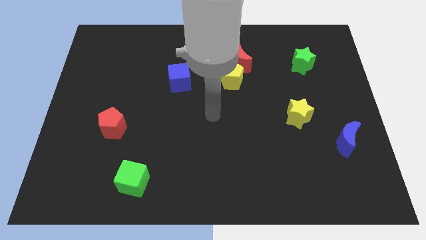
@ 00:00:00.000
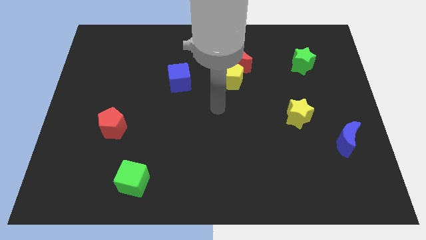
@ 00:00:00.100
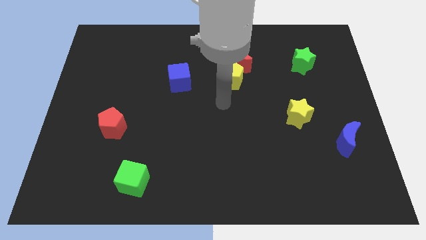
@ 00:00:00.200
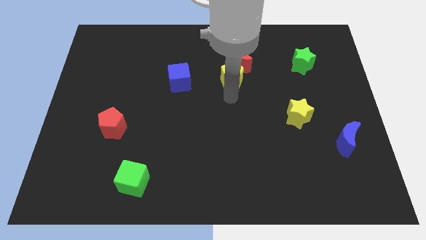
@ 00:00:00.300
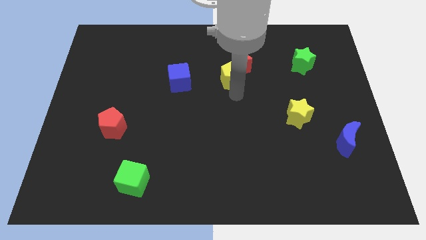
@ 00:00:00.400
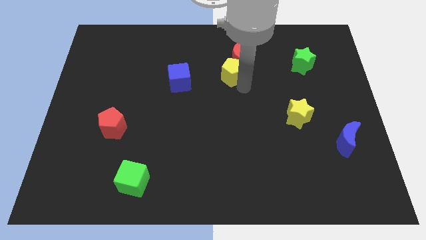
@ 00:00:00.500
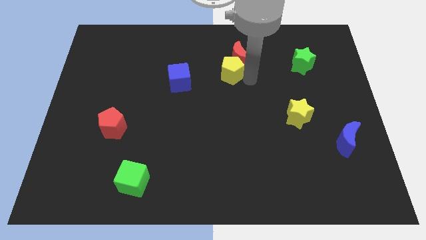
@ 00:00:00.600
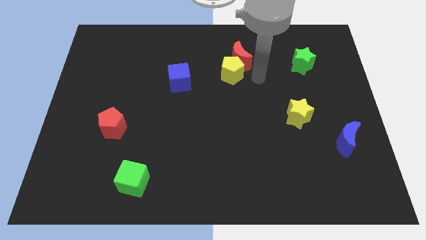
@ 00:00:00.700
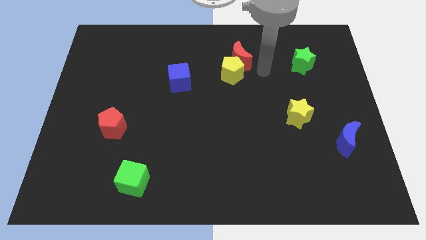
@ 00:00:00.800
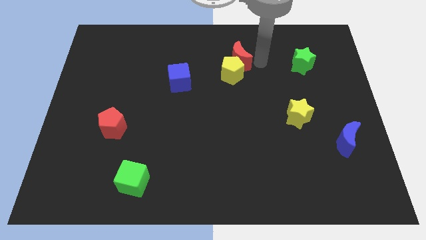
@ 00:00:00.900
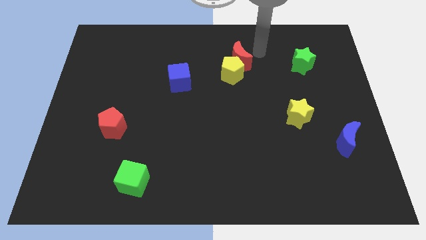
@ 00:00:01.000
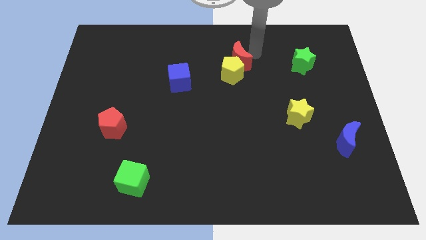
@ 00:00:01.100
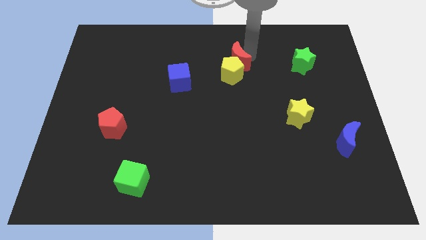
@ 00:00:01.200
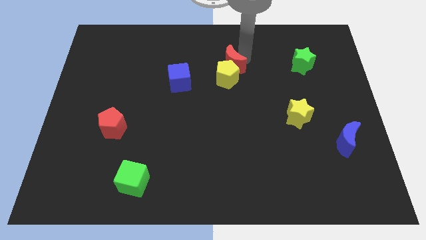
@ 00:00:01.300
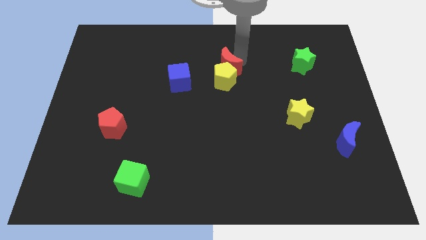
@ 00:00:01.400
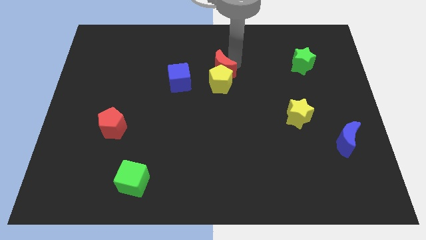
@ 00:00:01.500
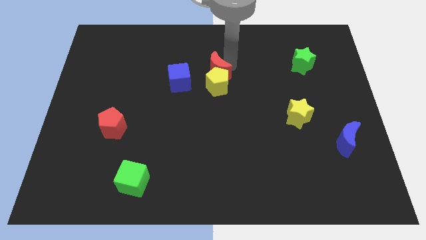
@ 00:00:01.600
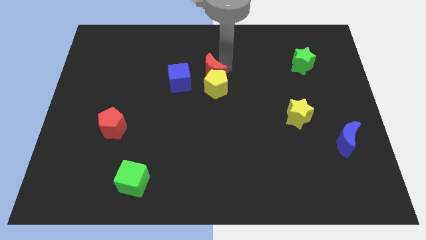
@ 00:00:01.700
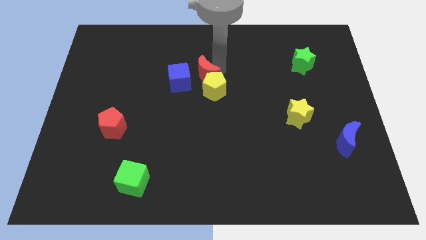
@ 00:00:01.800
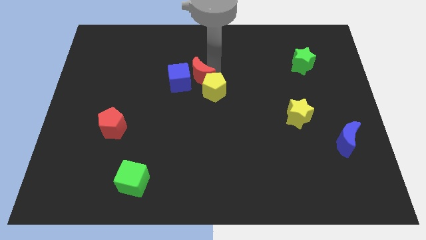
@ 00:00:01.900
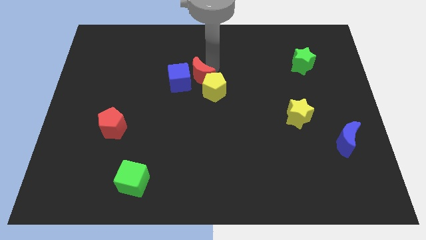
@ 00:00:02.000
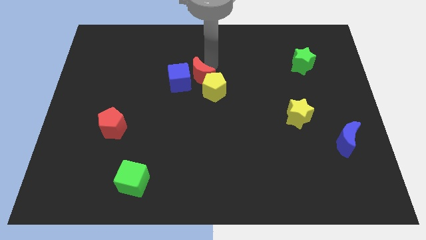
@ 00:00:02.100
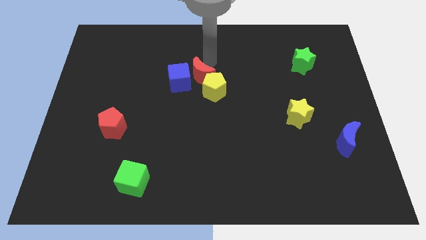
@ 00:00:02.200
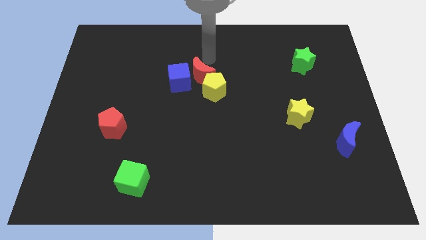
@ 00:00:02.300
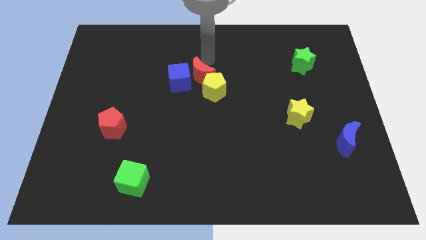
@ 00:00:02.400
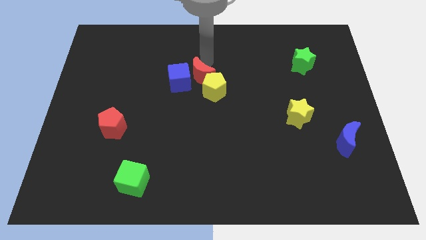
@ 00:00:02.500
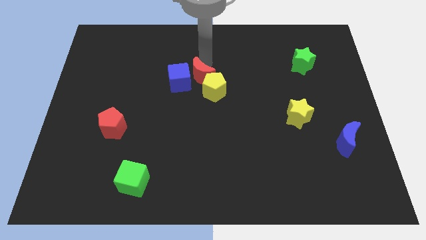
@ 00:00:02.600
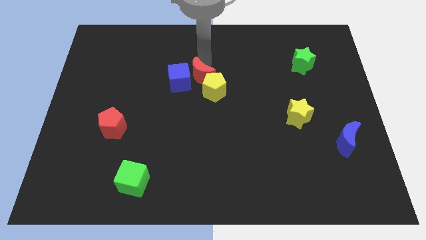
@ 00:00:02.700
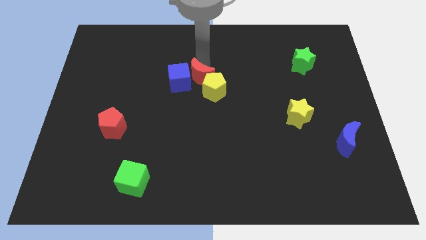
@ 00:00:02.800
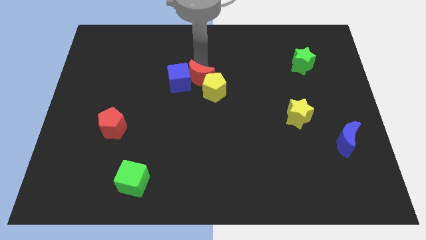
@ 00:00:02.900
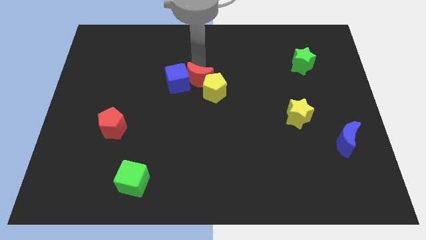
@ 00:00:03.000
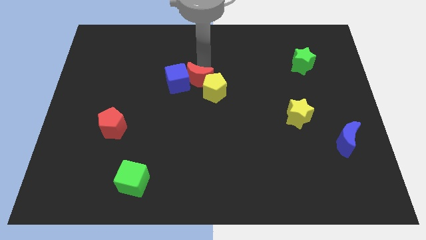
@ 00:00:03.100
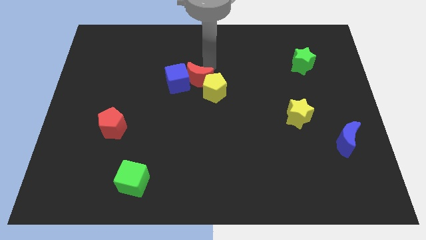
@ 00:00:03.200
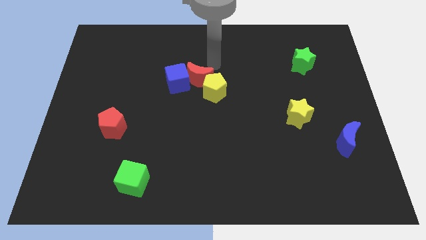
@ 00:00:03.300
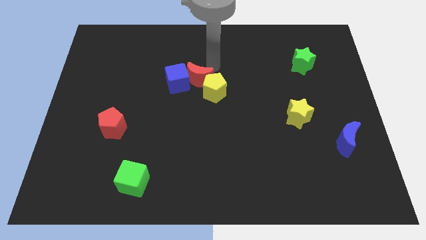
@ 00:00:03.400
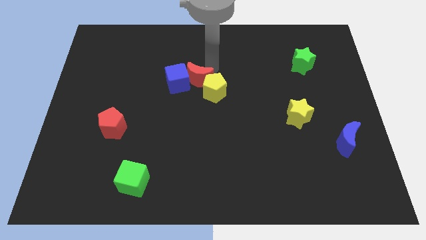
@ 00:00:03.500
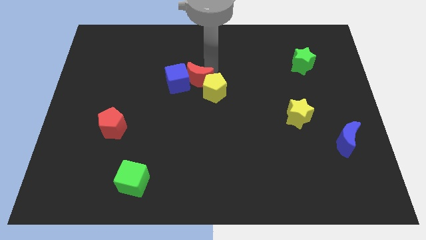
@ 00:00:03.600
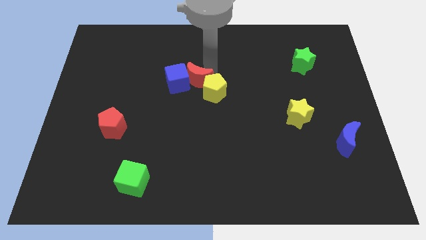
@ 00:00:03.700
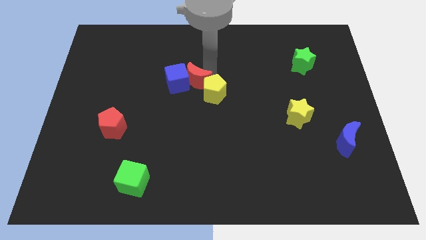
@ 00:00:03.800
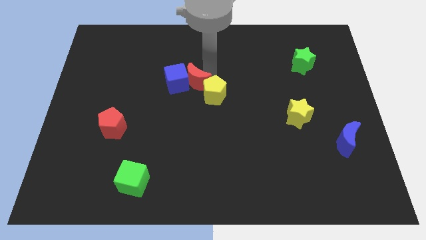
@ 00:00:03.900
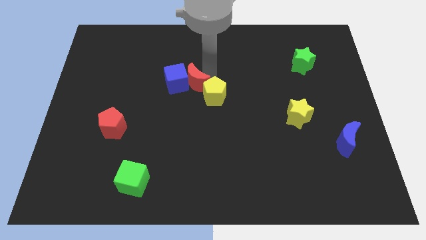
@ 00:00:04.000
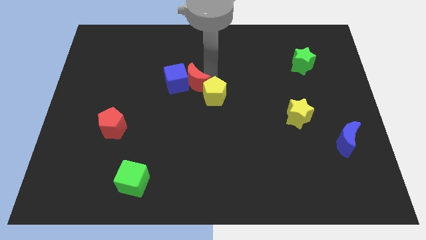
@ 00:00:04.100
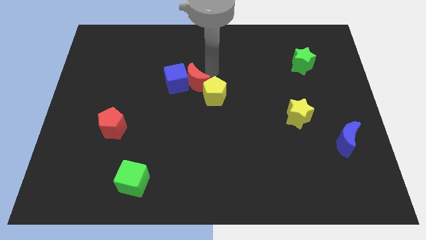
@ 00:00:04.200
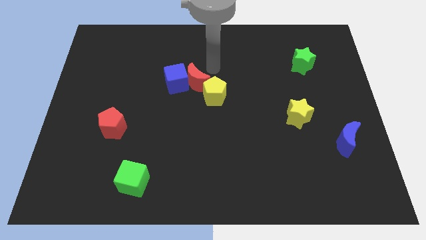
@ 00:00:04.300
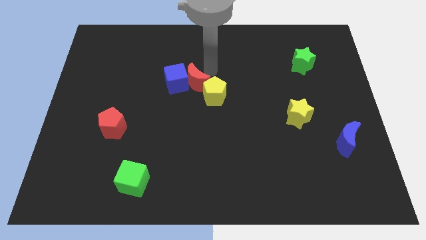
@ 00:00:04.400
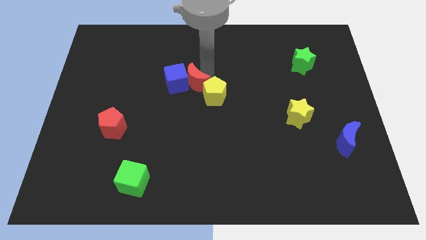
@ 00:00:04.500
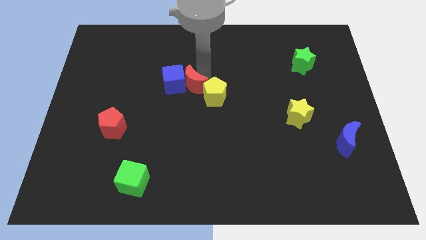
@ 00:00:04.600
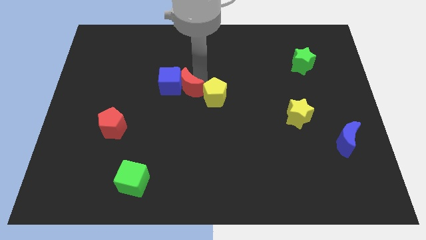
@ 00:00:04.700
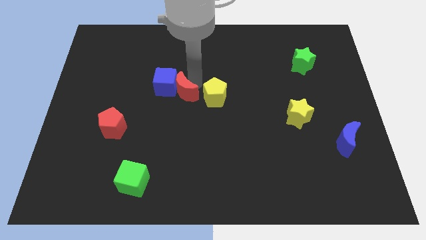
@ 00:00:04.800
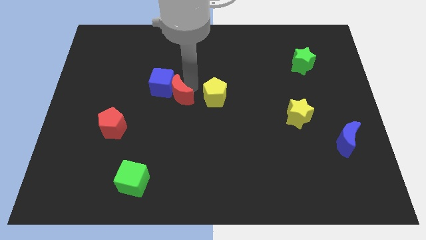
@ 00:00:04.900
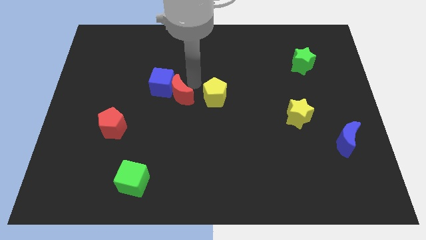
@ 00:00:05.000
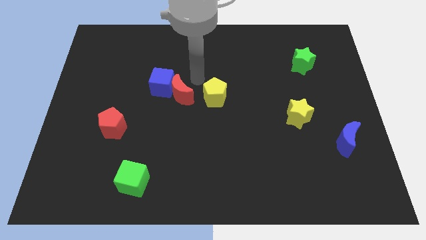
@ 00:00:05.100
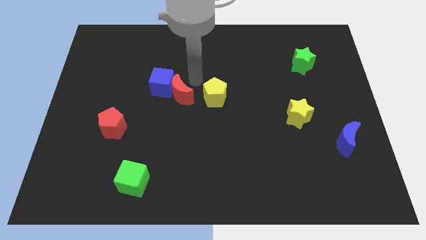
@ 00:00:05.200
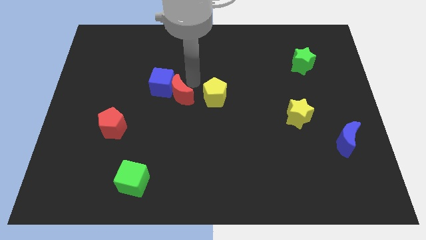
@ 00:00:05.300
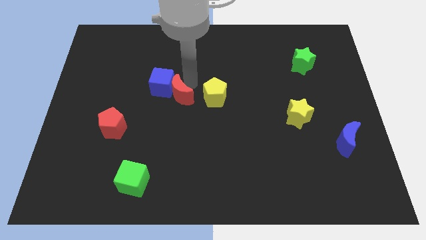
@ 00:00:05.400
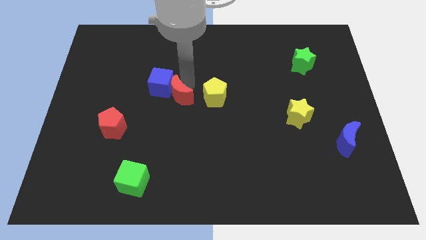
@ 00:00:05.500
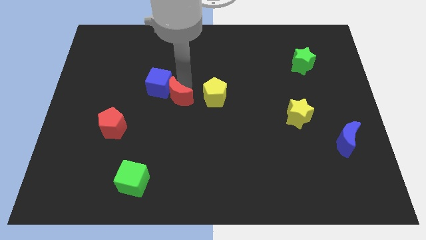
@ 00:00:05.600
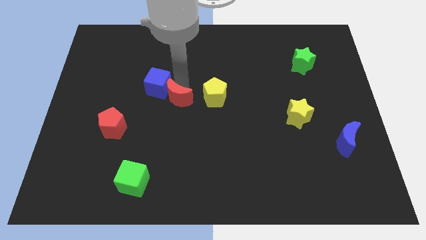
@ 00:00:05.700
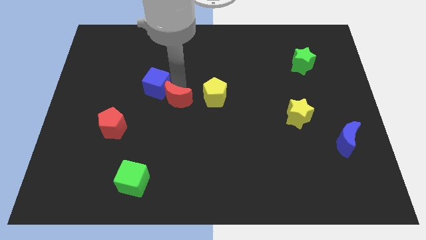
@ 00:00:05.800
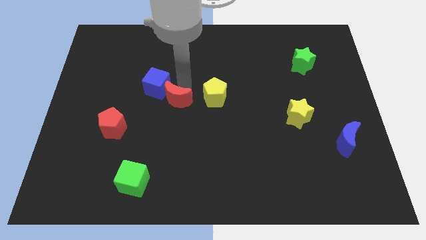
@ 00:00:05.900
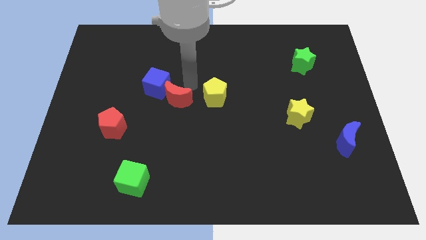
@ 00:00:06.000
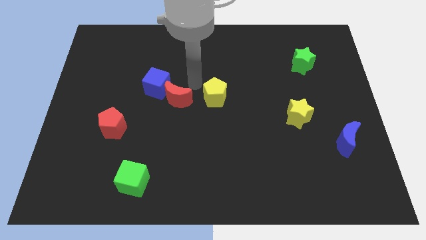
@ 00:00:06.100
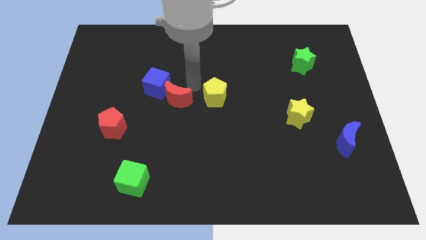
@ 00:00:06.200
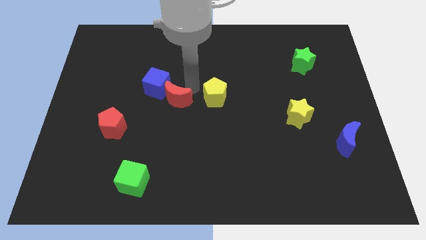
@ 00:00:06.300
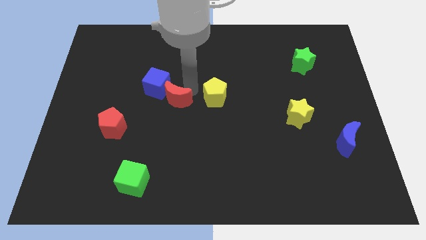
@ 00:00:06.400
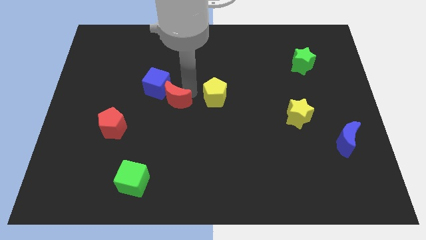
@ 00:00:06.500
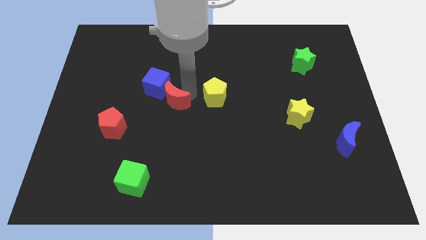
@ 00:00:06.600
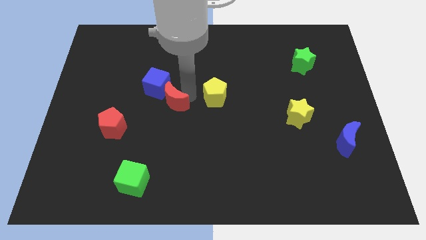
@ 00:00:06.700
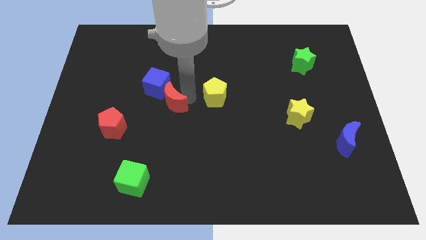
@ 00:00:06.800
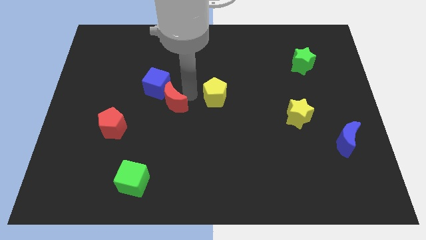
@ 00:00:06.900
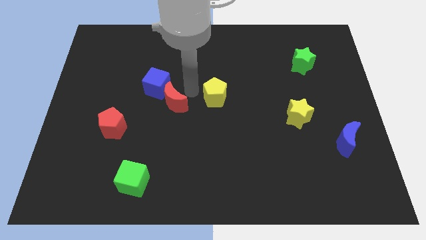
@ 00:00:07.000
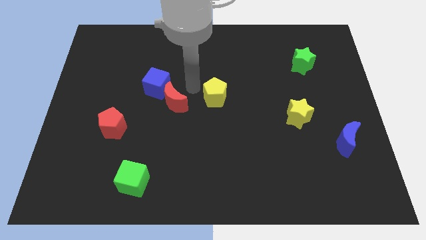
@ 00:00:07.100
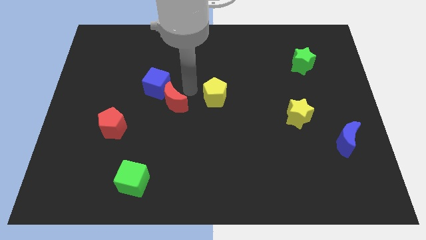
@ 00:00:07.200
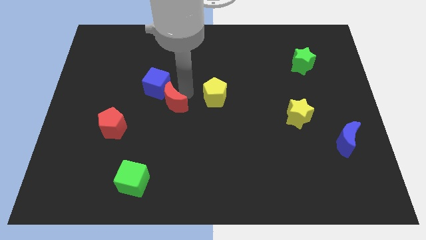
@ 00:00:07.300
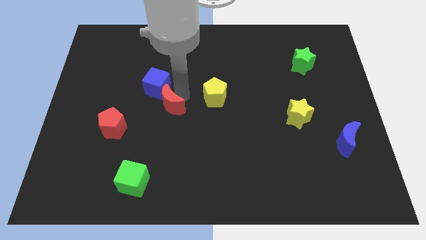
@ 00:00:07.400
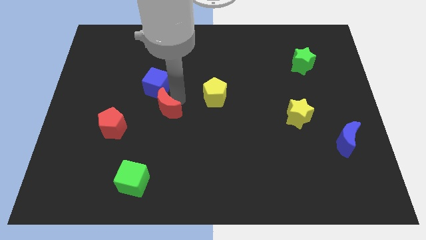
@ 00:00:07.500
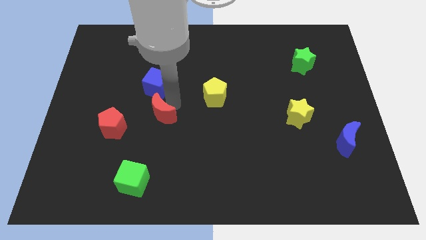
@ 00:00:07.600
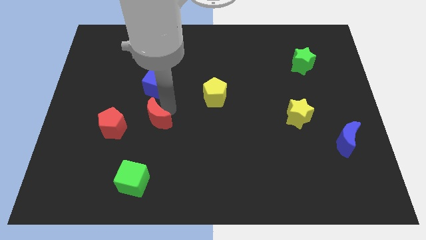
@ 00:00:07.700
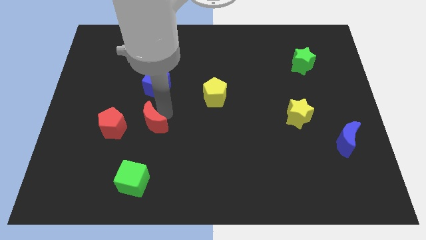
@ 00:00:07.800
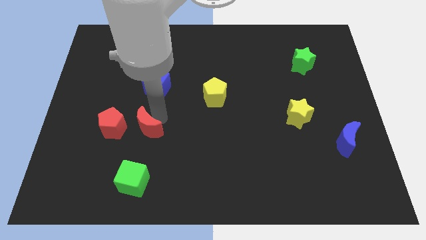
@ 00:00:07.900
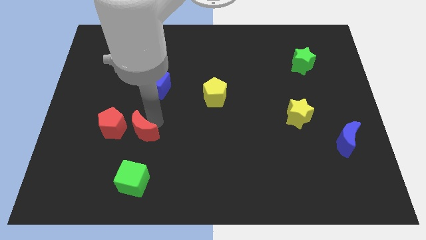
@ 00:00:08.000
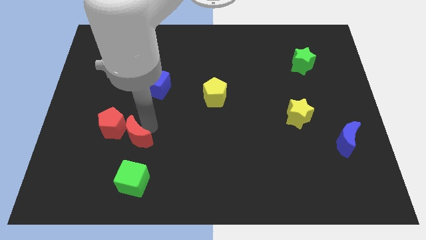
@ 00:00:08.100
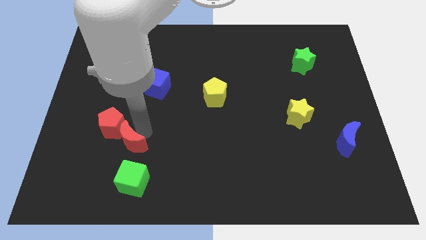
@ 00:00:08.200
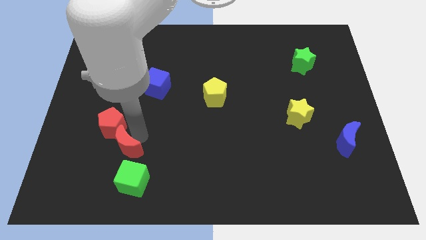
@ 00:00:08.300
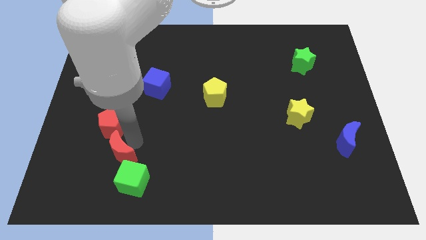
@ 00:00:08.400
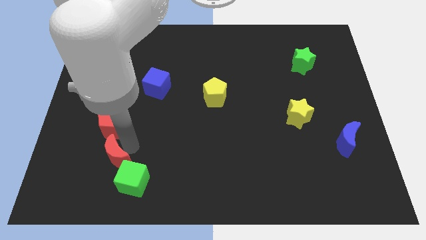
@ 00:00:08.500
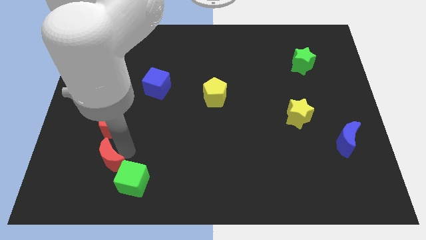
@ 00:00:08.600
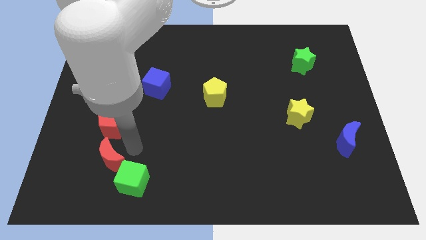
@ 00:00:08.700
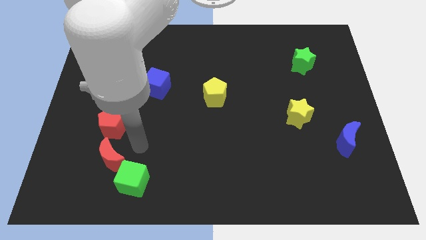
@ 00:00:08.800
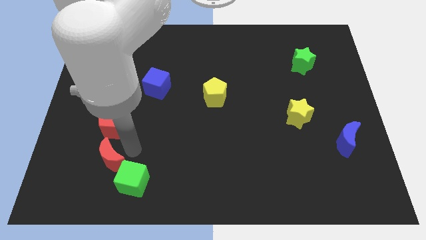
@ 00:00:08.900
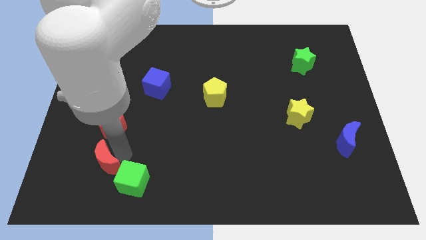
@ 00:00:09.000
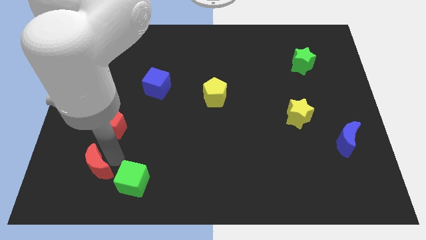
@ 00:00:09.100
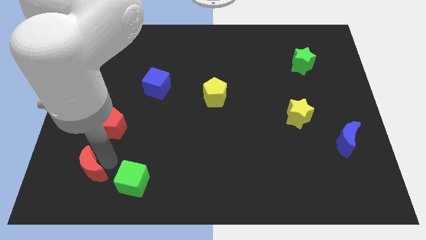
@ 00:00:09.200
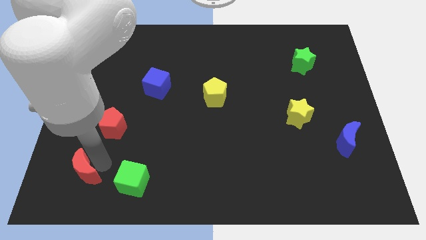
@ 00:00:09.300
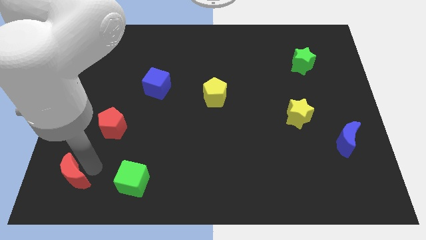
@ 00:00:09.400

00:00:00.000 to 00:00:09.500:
put the red moon to the lower left corner
